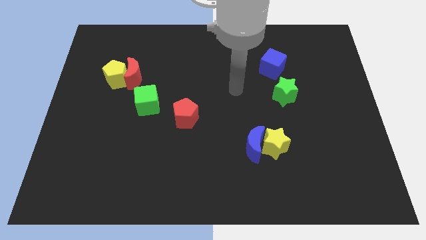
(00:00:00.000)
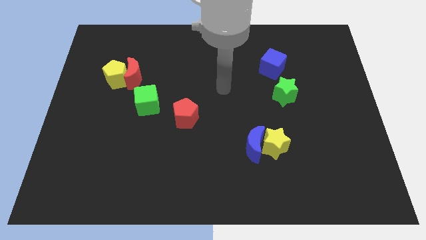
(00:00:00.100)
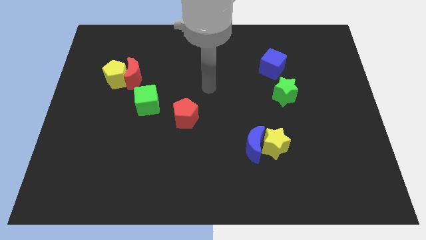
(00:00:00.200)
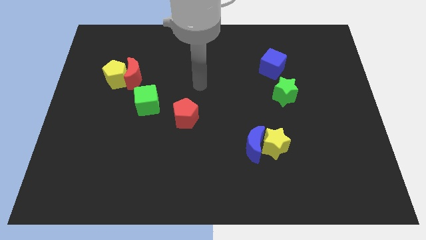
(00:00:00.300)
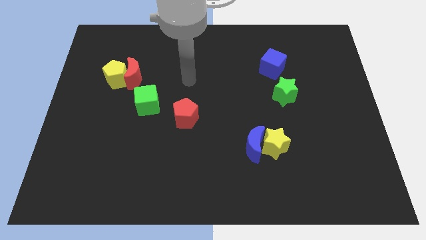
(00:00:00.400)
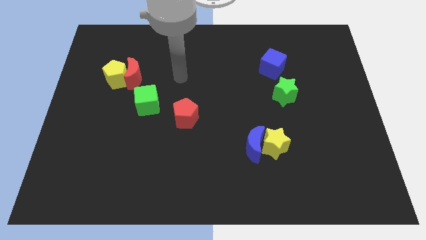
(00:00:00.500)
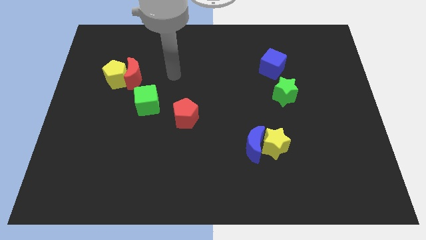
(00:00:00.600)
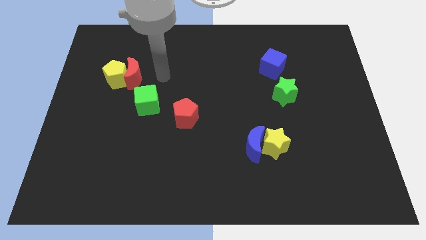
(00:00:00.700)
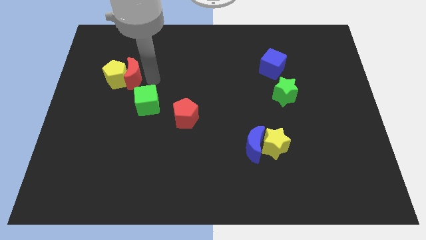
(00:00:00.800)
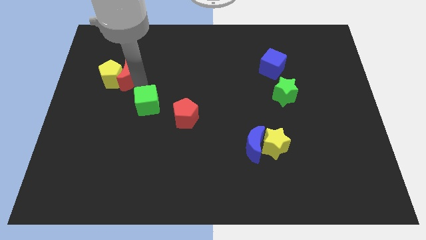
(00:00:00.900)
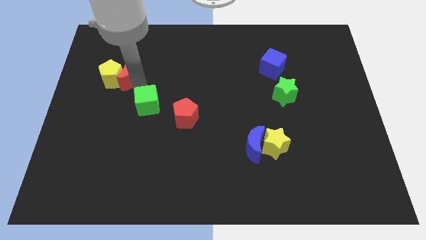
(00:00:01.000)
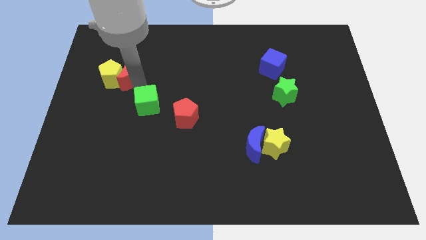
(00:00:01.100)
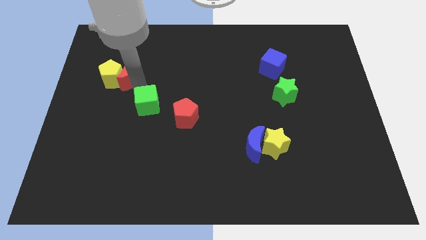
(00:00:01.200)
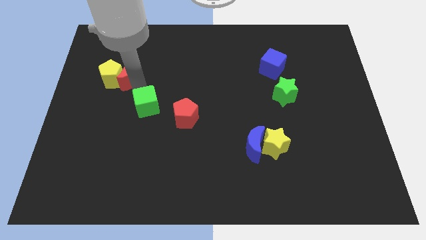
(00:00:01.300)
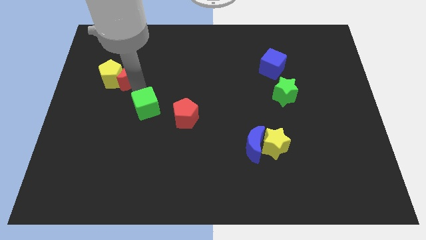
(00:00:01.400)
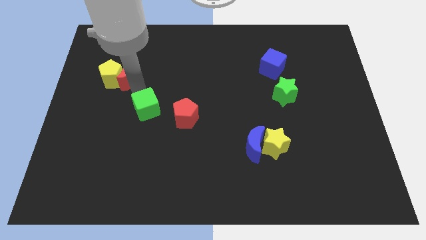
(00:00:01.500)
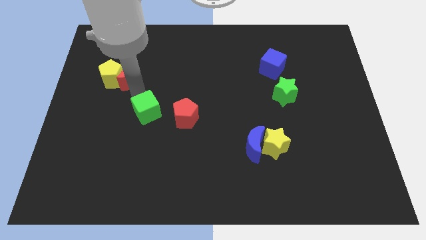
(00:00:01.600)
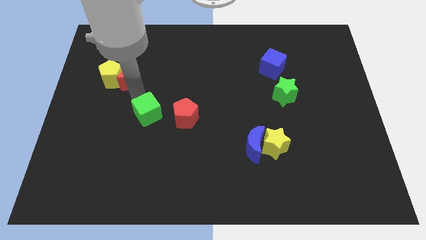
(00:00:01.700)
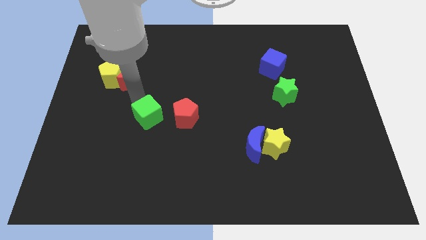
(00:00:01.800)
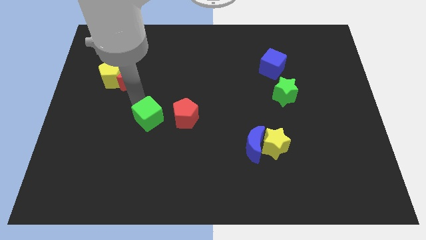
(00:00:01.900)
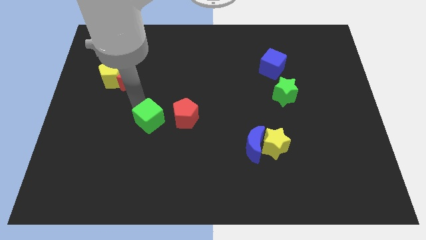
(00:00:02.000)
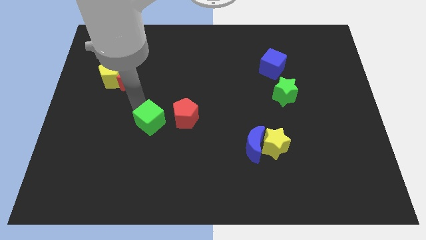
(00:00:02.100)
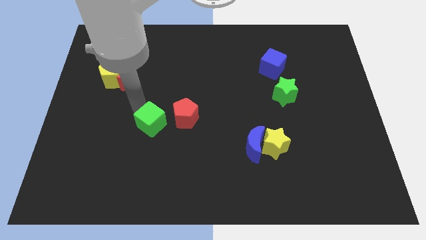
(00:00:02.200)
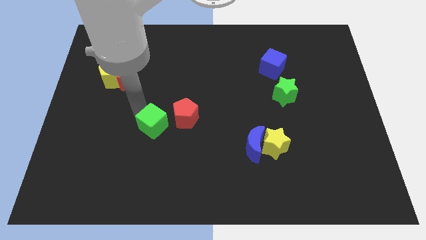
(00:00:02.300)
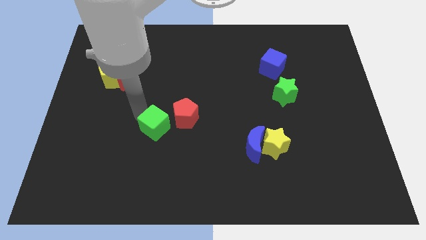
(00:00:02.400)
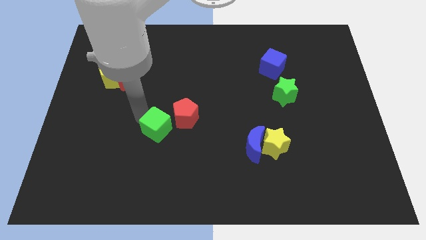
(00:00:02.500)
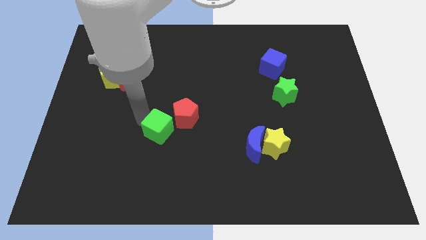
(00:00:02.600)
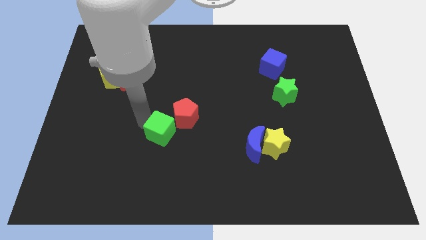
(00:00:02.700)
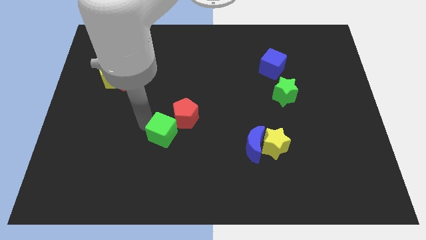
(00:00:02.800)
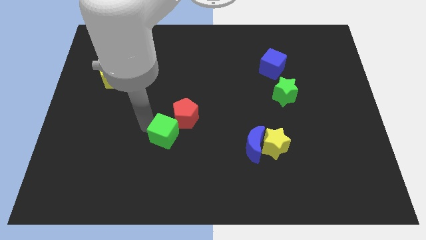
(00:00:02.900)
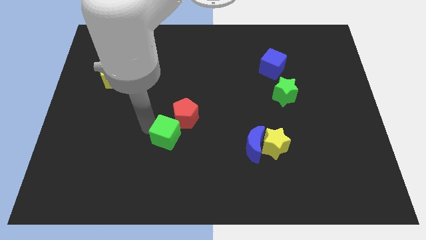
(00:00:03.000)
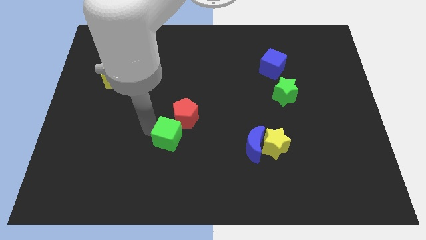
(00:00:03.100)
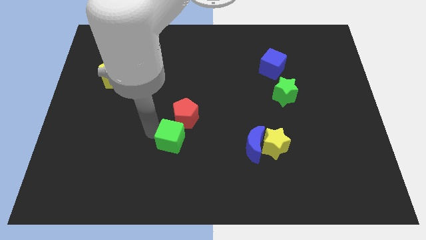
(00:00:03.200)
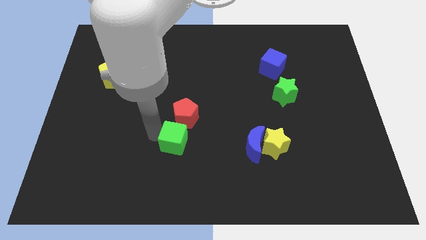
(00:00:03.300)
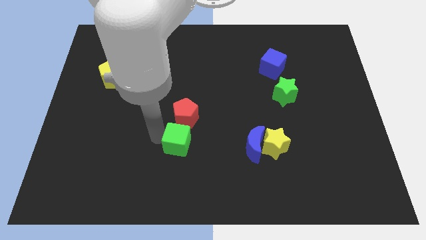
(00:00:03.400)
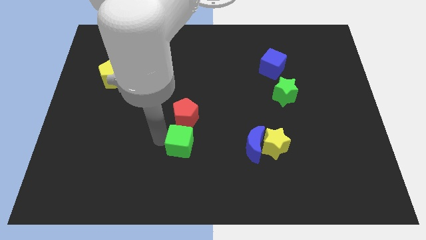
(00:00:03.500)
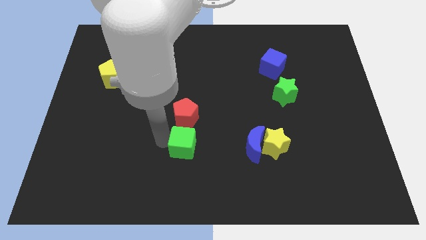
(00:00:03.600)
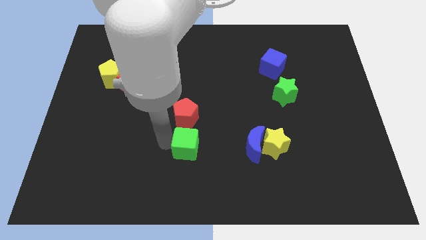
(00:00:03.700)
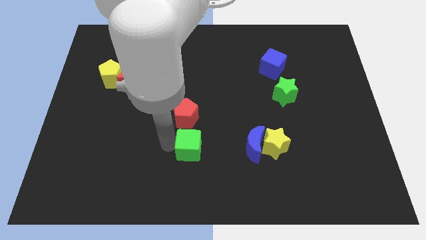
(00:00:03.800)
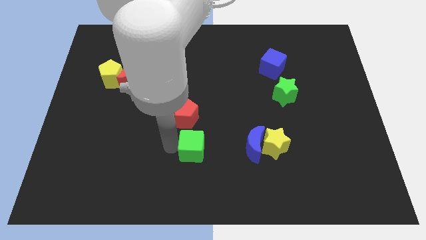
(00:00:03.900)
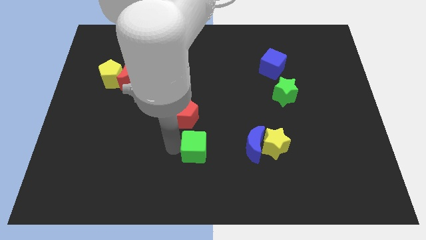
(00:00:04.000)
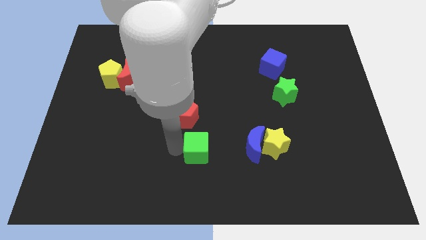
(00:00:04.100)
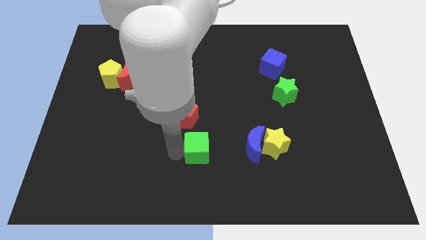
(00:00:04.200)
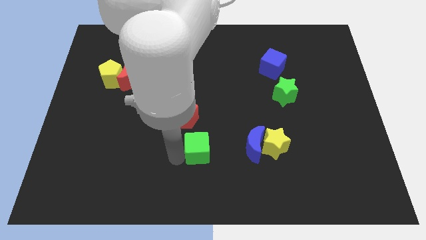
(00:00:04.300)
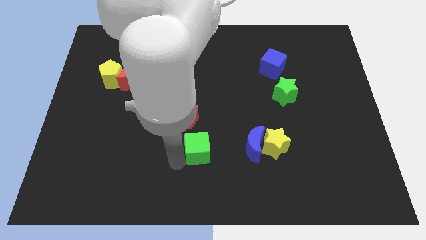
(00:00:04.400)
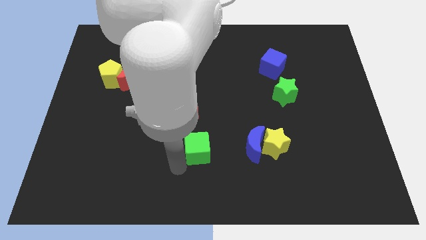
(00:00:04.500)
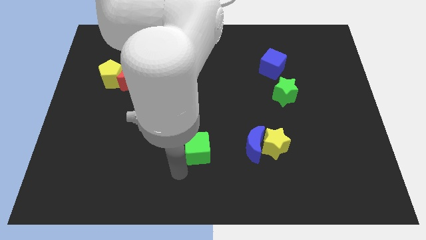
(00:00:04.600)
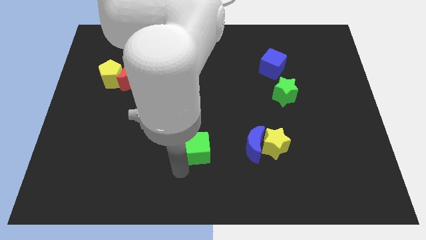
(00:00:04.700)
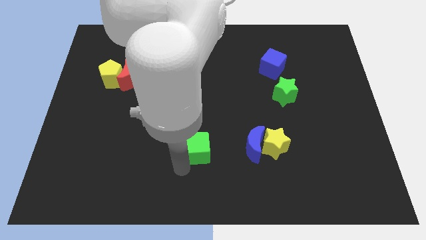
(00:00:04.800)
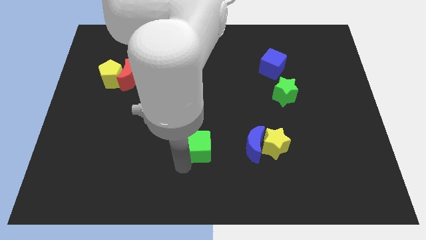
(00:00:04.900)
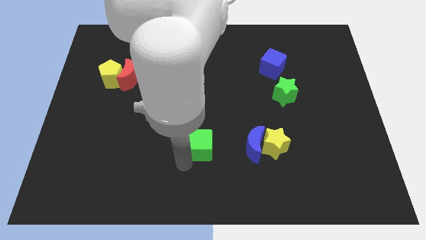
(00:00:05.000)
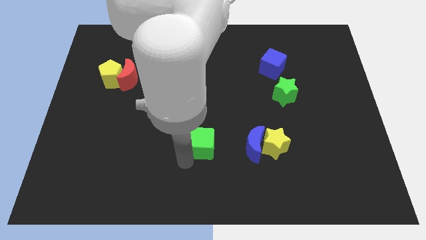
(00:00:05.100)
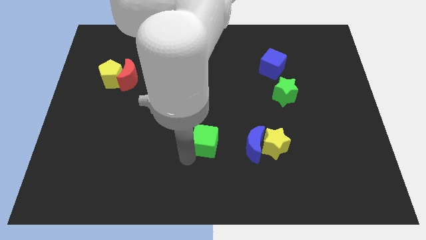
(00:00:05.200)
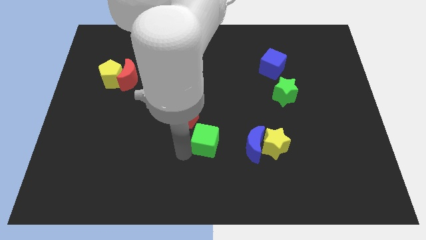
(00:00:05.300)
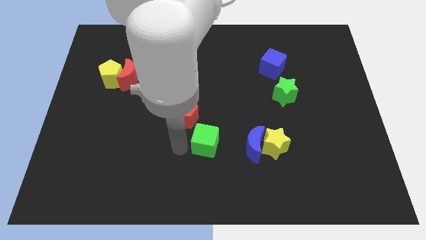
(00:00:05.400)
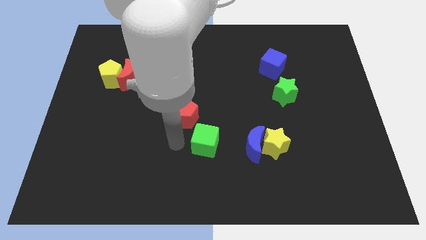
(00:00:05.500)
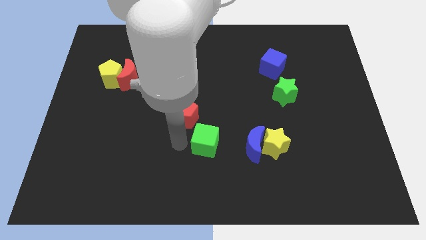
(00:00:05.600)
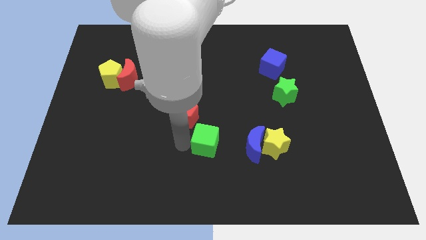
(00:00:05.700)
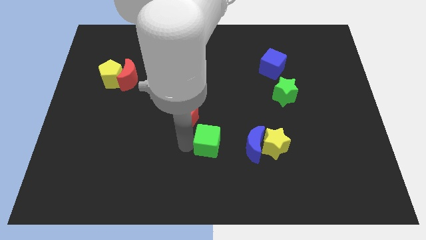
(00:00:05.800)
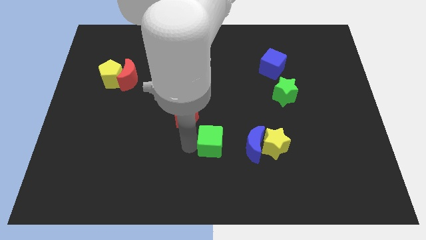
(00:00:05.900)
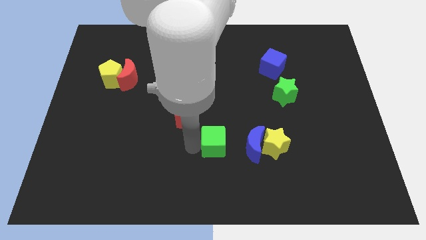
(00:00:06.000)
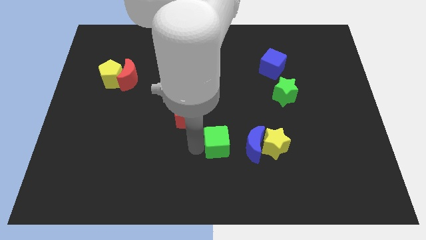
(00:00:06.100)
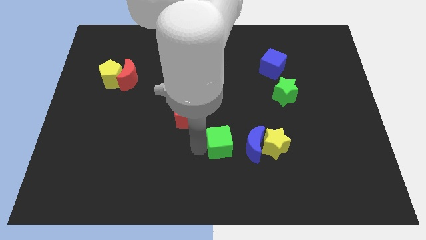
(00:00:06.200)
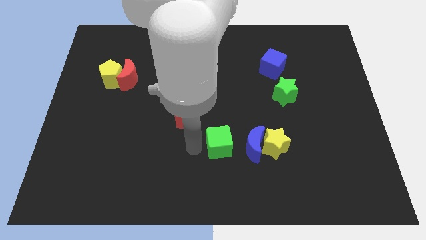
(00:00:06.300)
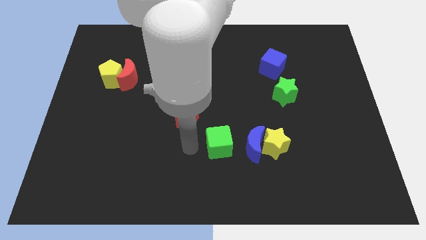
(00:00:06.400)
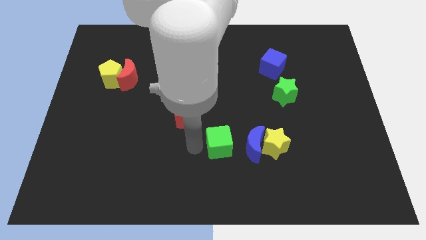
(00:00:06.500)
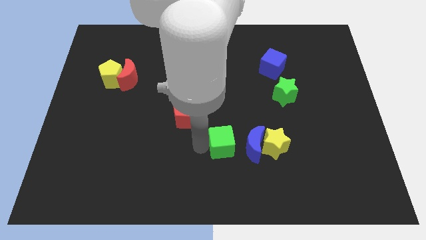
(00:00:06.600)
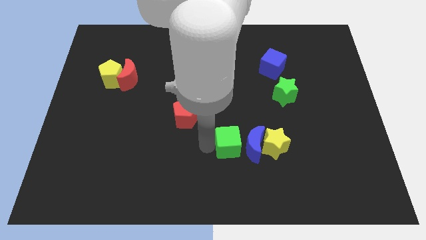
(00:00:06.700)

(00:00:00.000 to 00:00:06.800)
slide the green cube close to the blue moon
